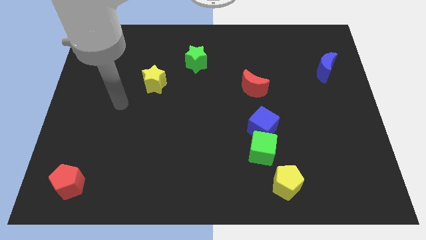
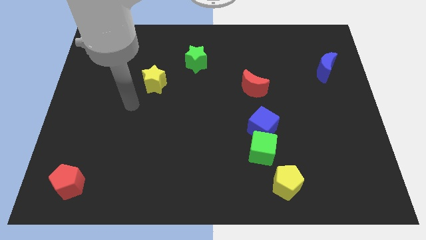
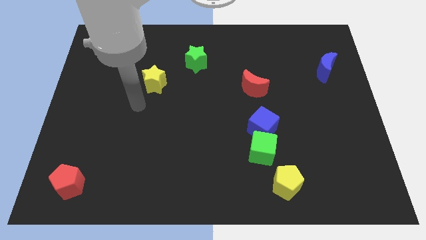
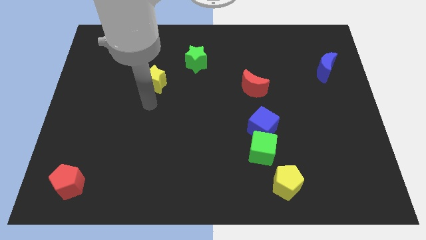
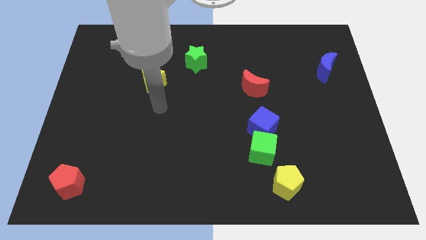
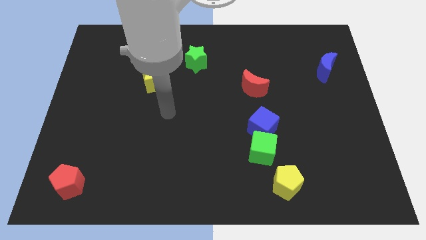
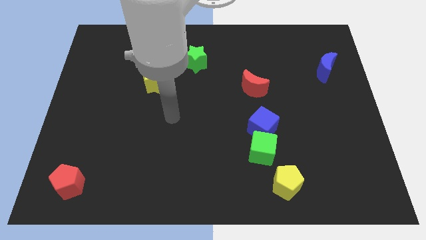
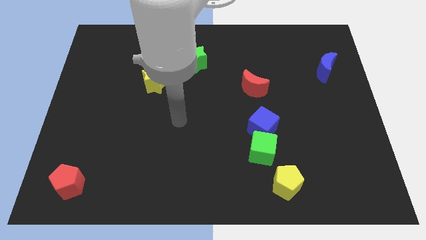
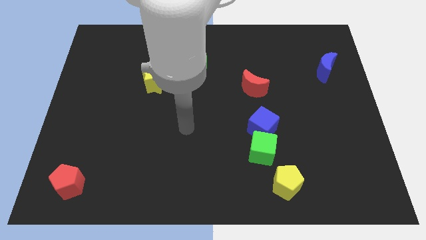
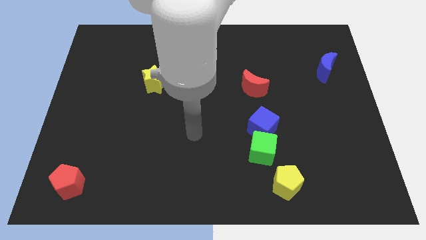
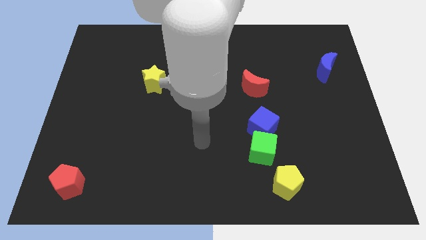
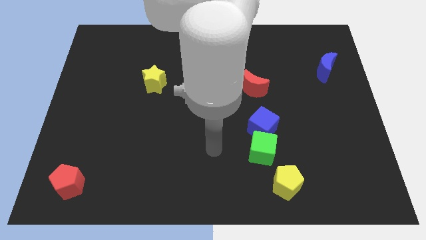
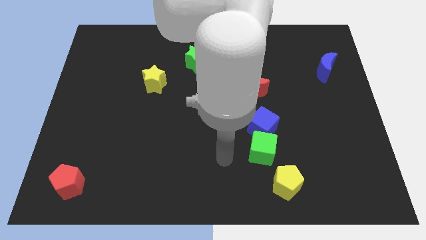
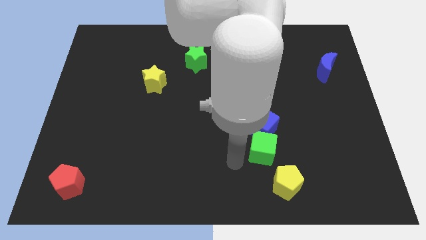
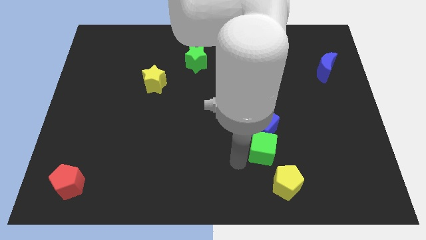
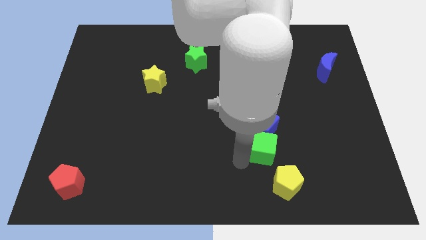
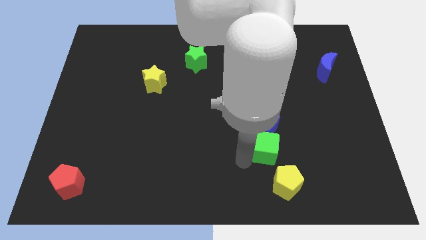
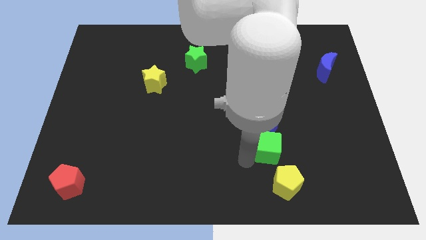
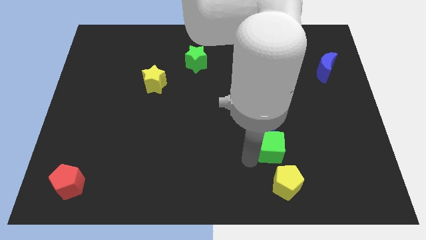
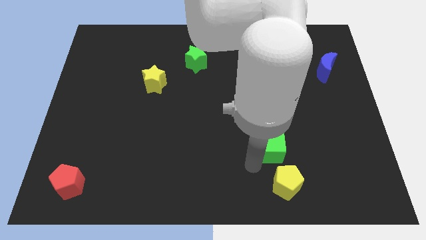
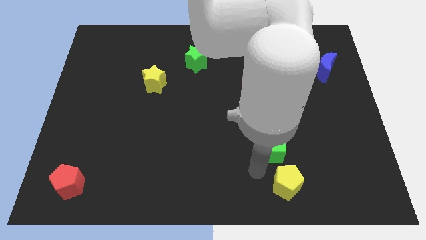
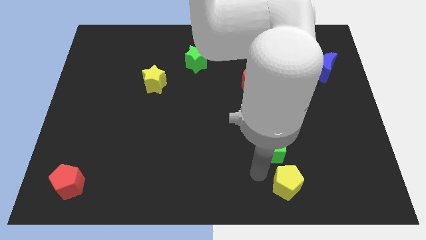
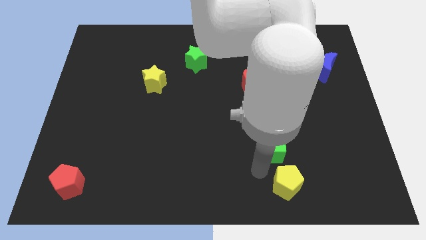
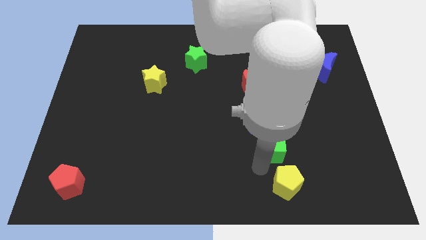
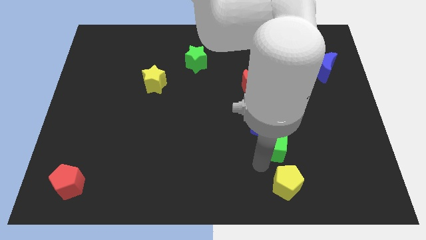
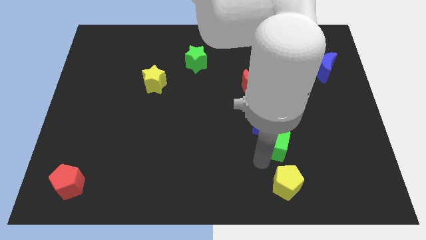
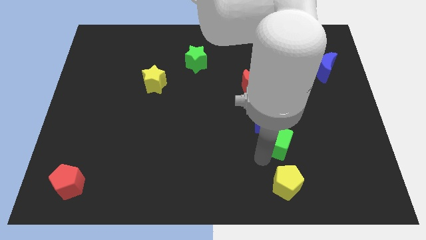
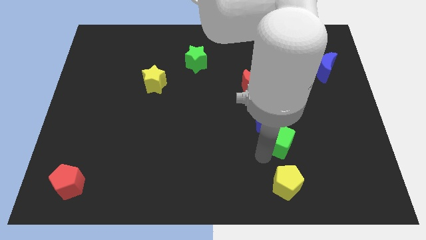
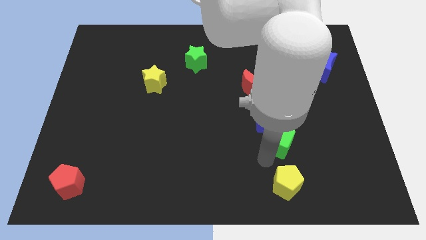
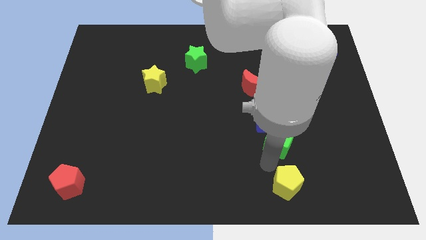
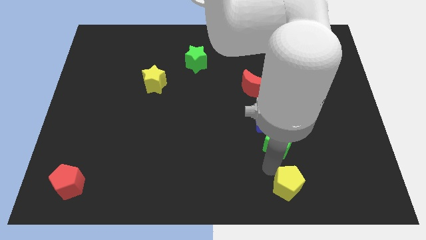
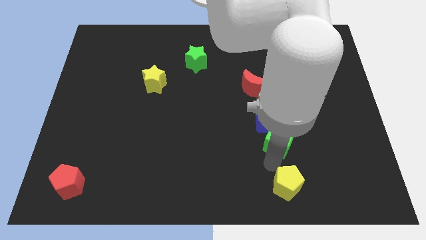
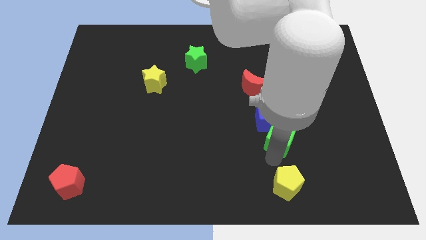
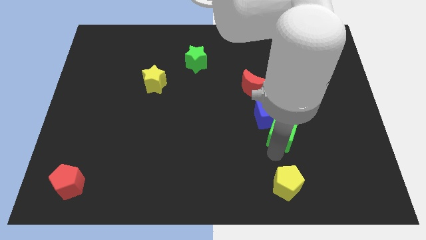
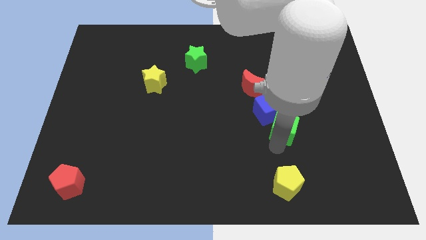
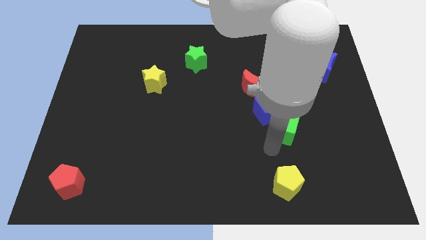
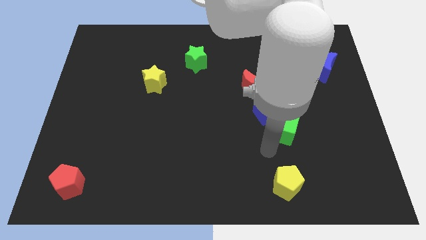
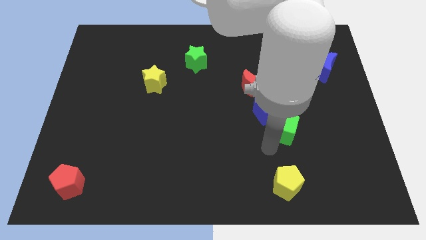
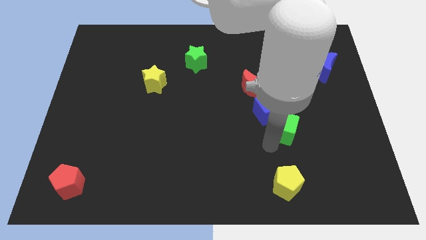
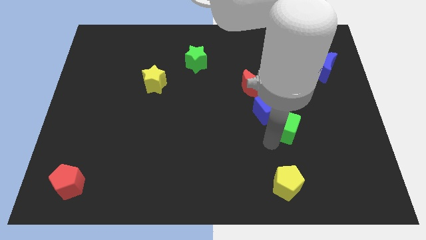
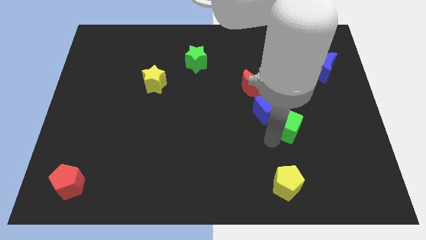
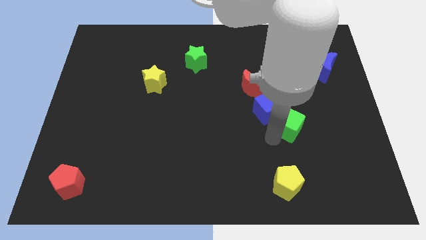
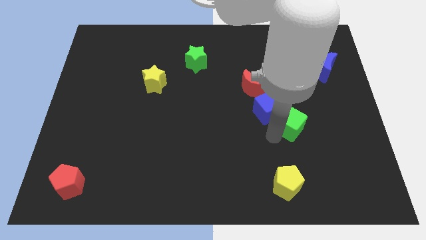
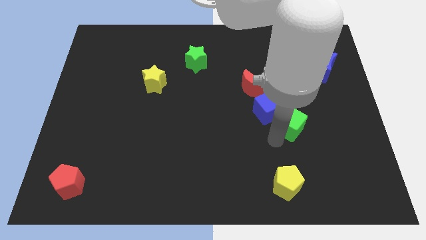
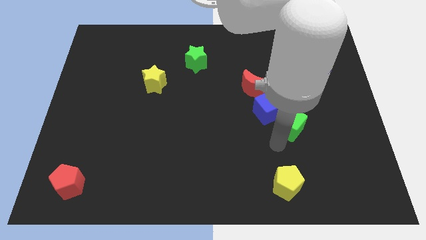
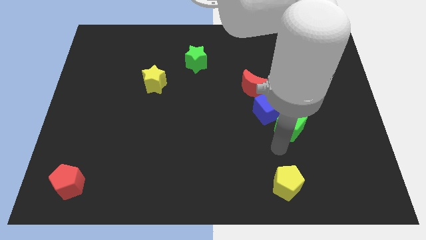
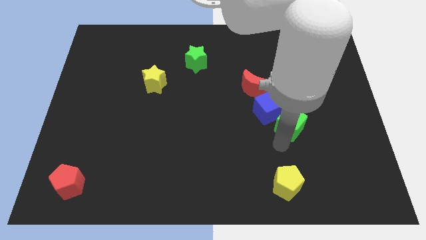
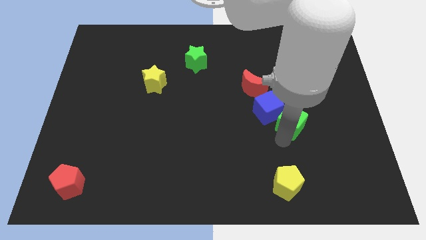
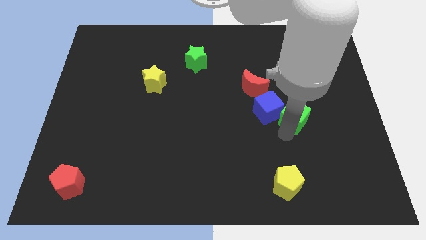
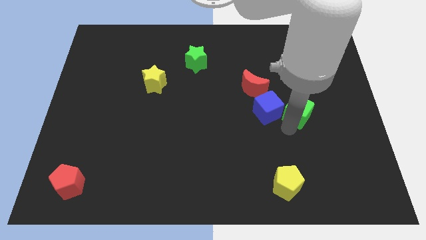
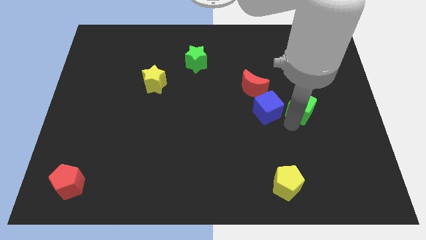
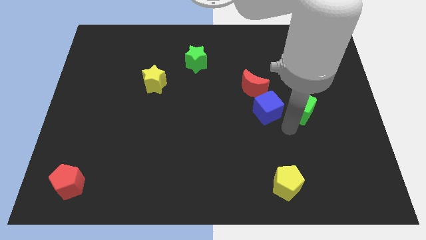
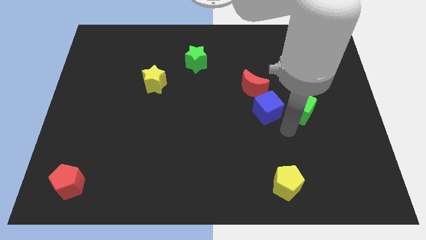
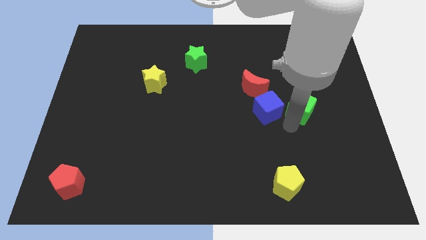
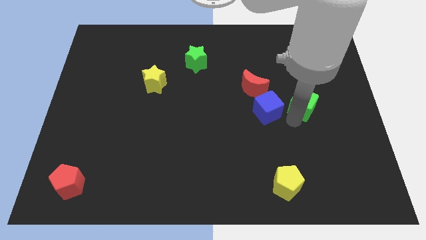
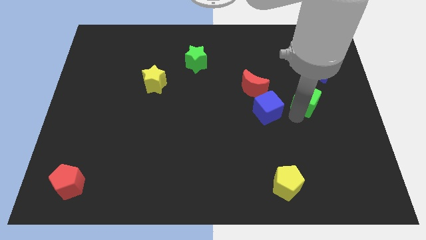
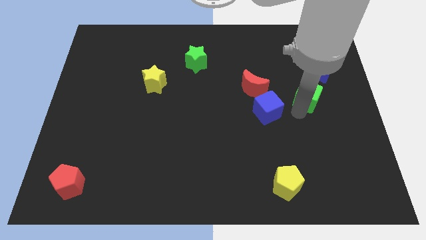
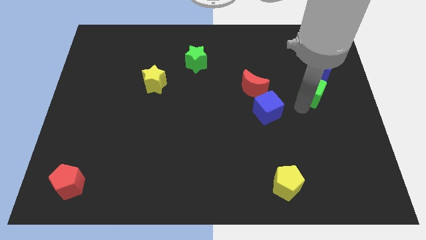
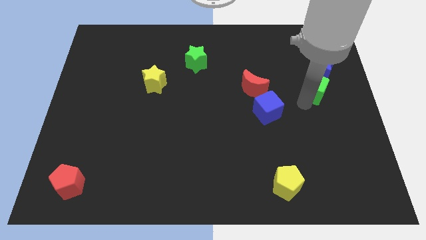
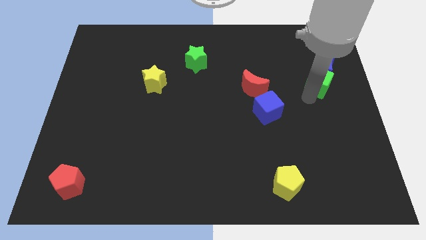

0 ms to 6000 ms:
slide the green cube next to the blue moon

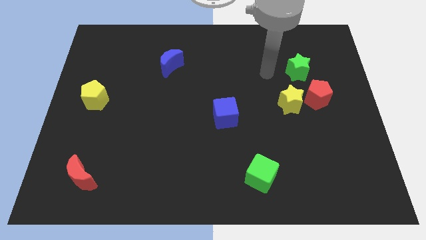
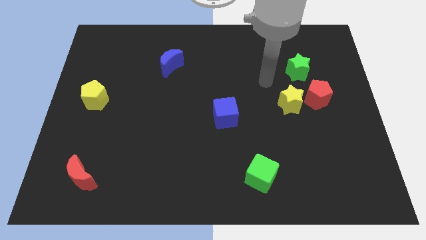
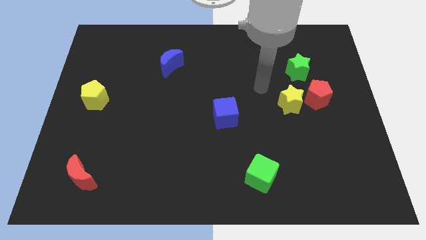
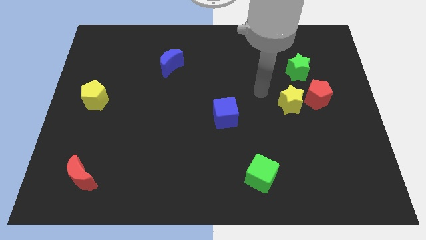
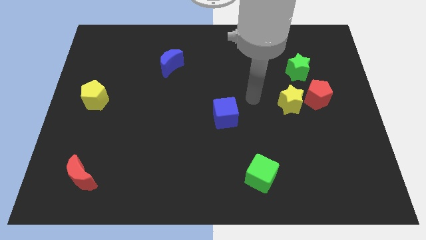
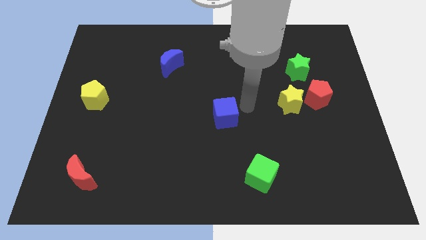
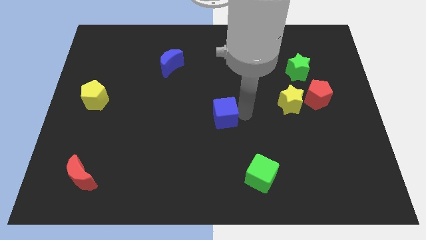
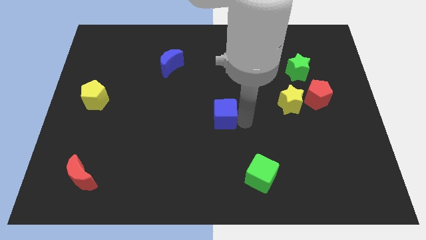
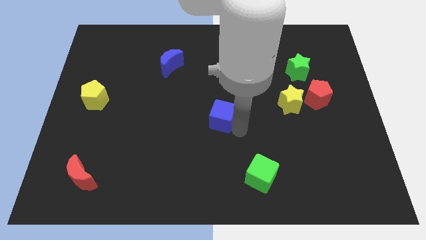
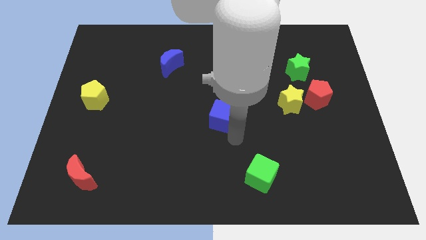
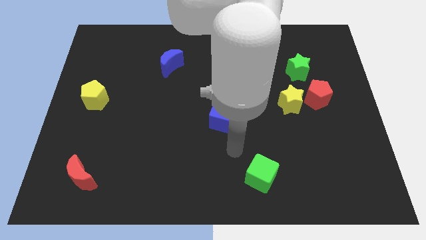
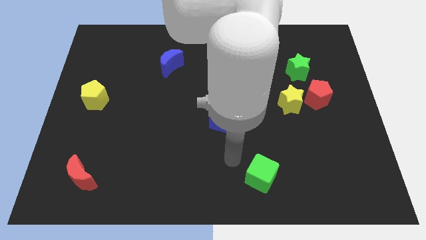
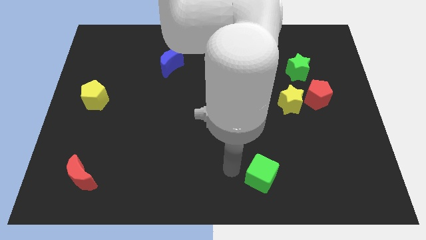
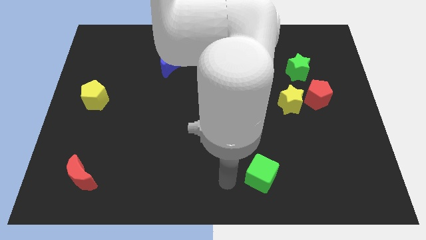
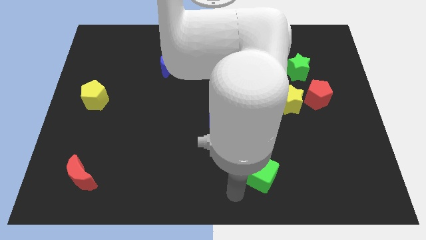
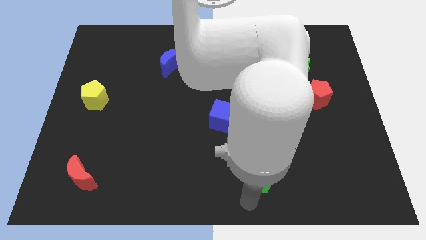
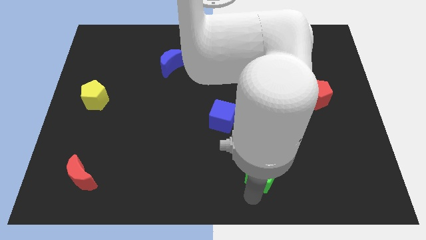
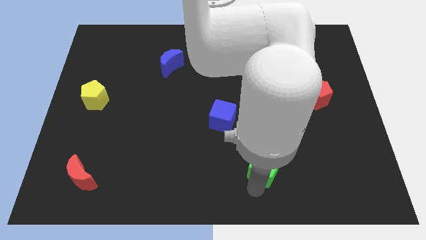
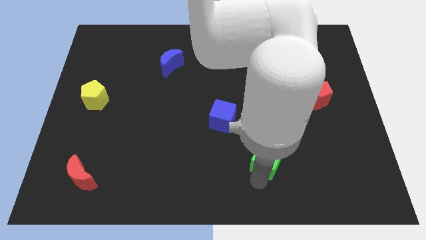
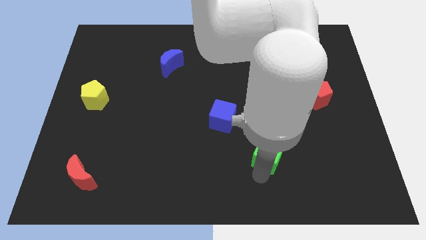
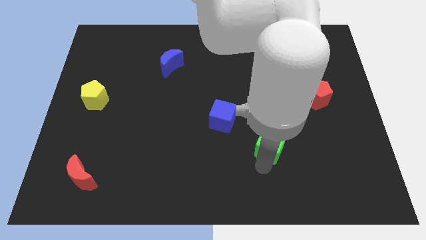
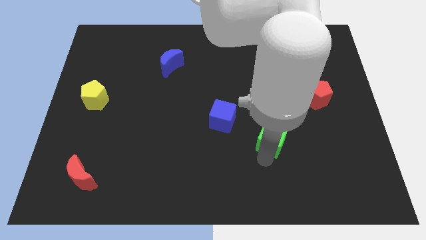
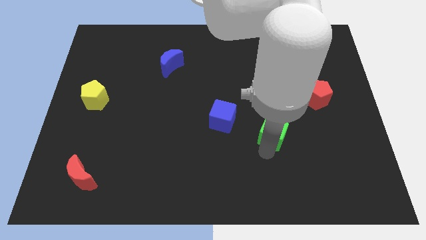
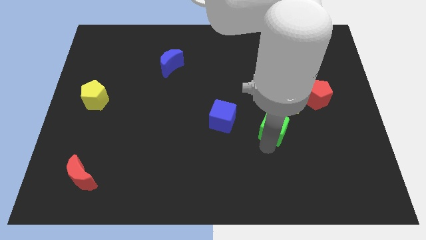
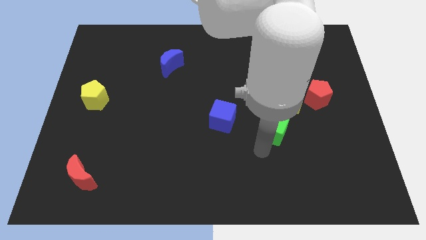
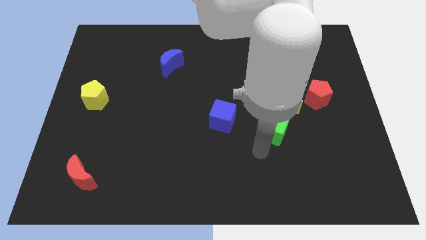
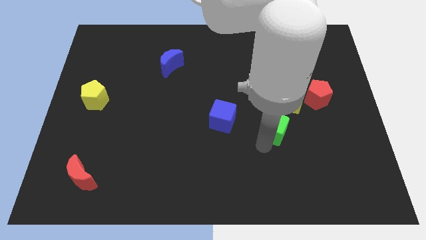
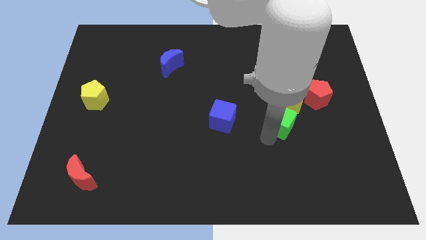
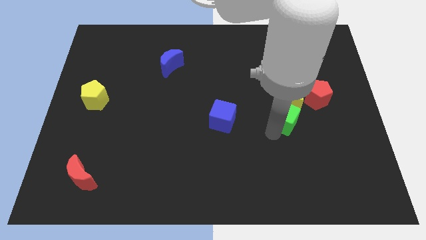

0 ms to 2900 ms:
move the green cube towards the yellow star
